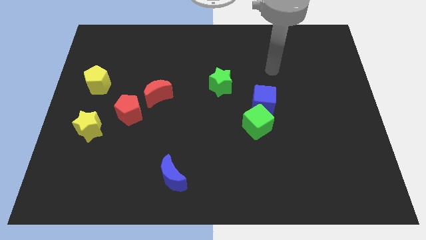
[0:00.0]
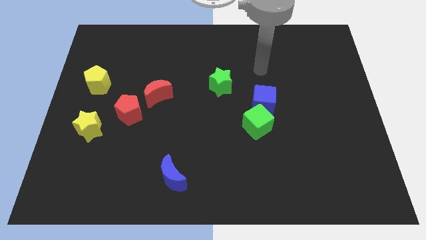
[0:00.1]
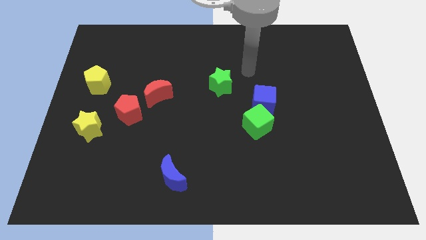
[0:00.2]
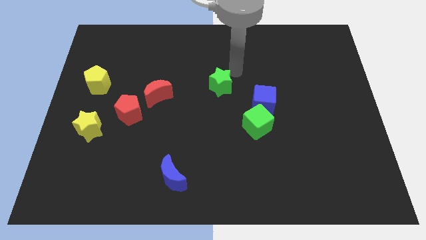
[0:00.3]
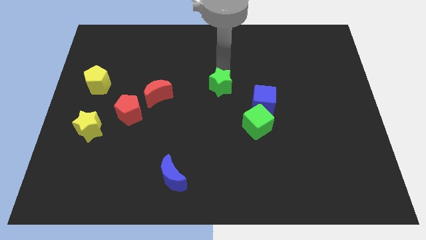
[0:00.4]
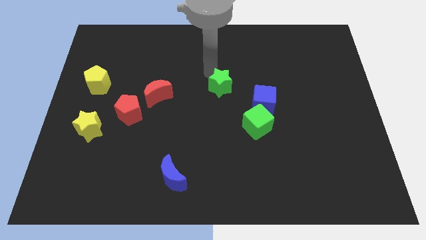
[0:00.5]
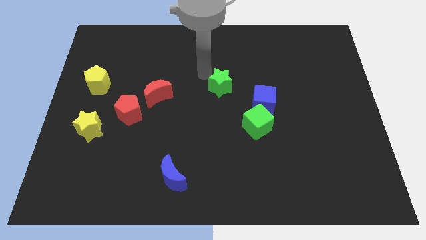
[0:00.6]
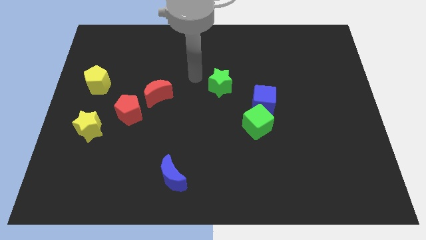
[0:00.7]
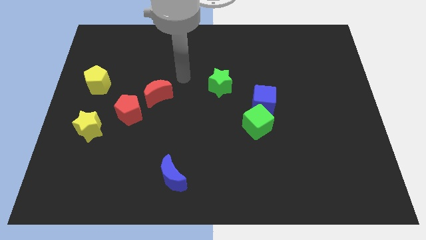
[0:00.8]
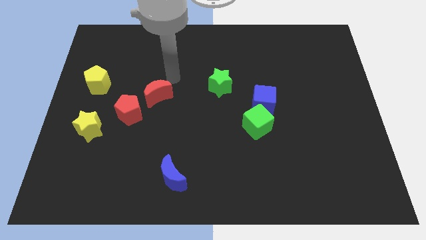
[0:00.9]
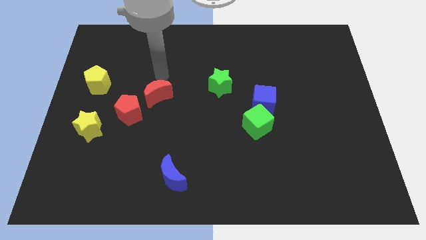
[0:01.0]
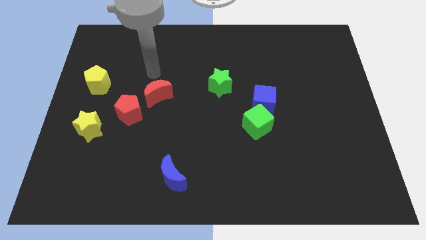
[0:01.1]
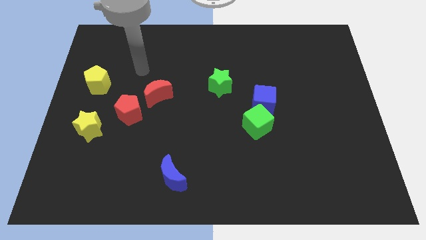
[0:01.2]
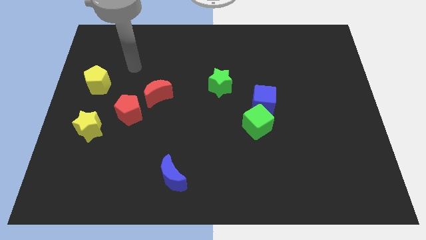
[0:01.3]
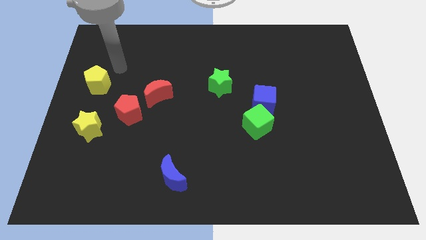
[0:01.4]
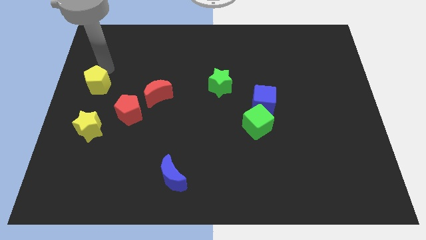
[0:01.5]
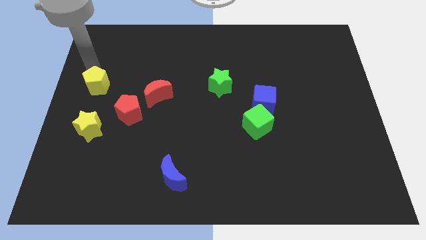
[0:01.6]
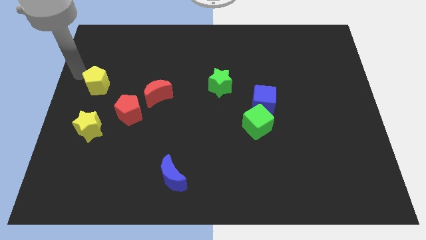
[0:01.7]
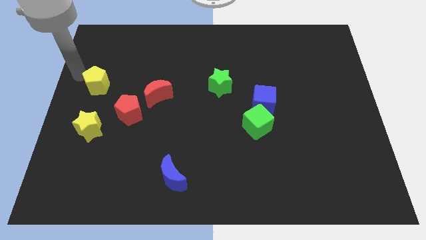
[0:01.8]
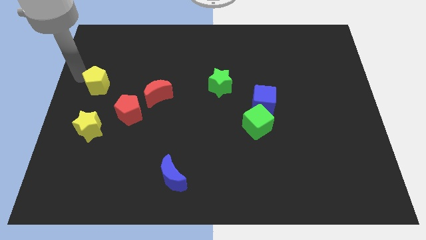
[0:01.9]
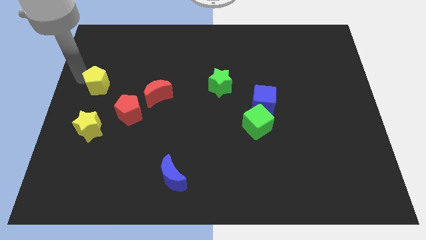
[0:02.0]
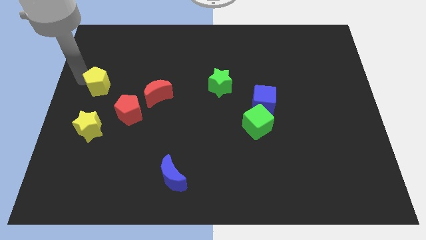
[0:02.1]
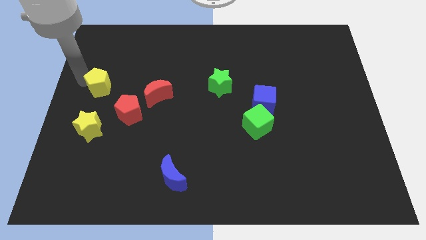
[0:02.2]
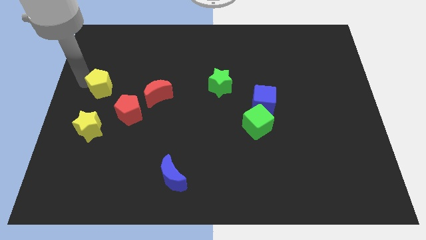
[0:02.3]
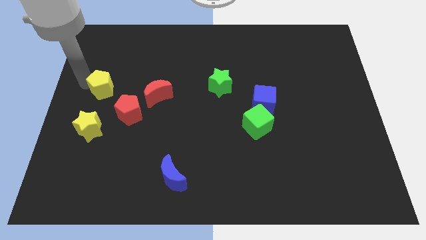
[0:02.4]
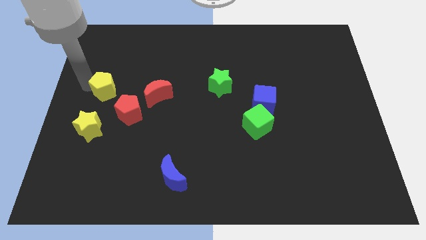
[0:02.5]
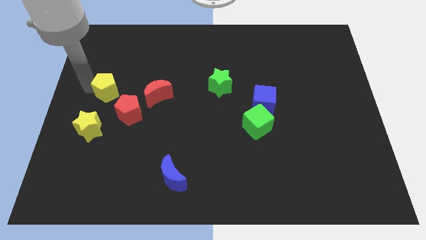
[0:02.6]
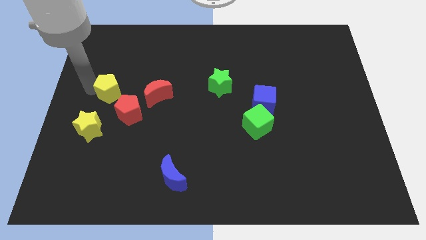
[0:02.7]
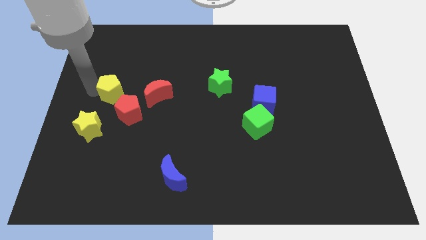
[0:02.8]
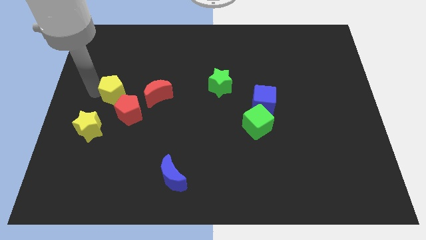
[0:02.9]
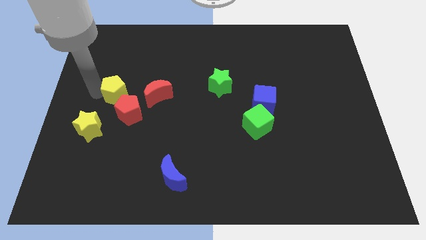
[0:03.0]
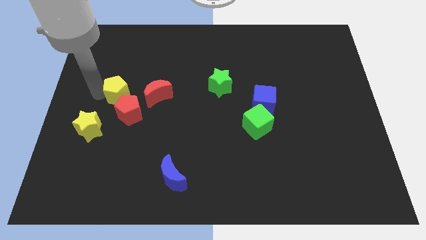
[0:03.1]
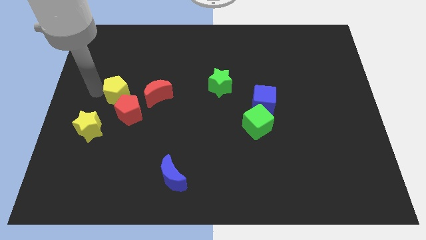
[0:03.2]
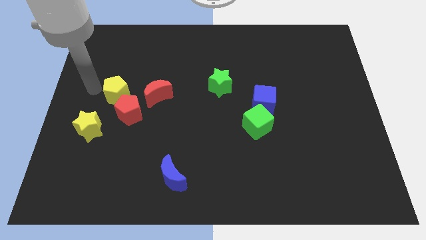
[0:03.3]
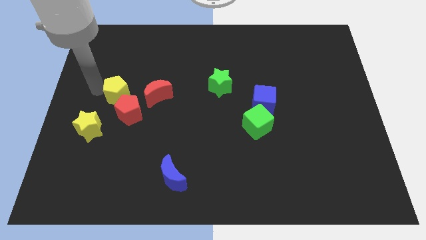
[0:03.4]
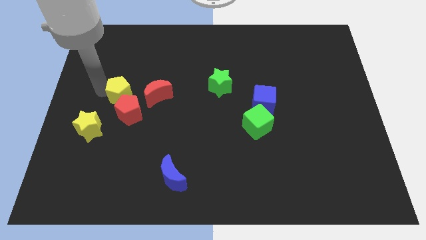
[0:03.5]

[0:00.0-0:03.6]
slightly push the yellow pentagon down and right diagonally

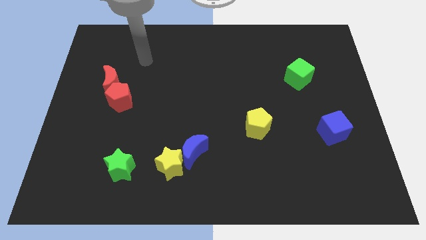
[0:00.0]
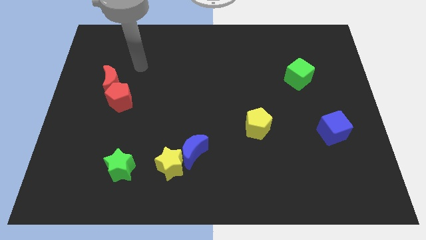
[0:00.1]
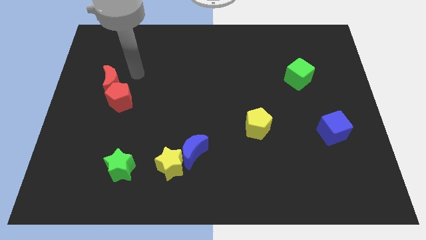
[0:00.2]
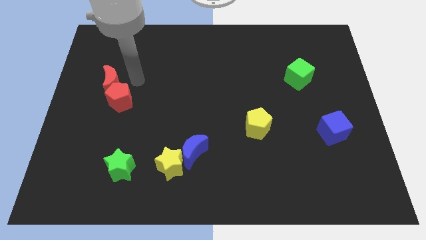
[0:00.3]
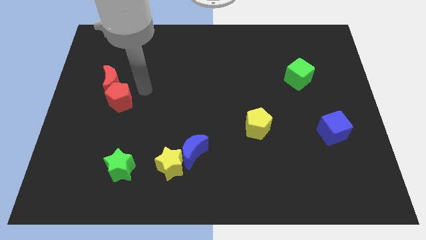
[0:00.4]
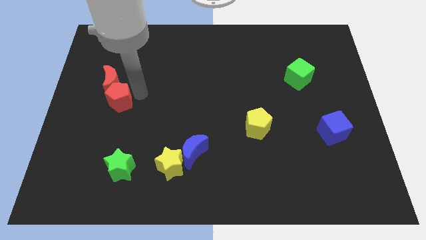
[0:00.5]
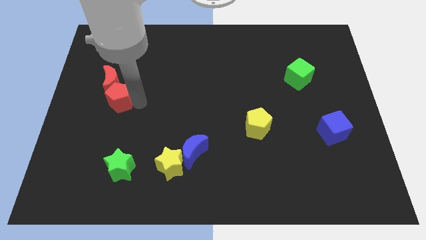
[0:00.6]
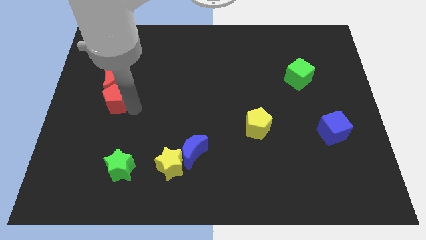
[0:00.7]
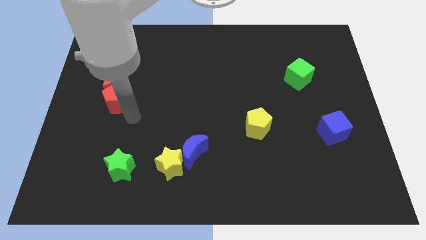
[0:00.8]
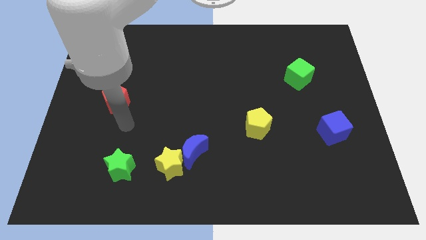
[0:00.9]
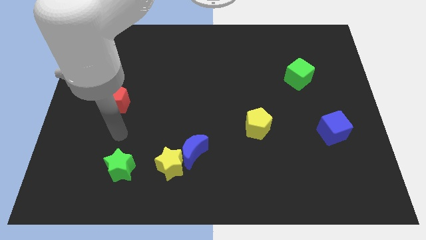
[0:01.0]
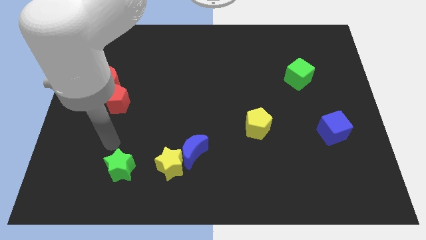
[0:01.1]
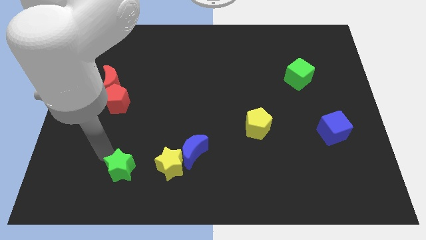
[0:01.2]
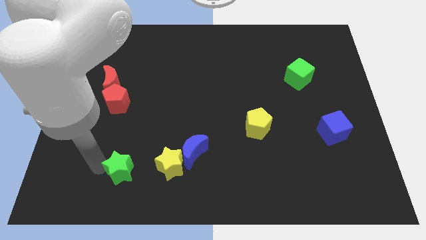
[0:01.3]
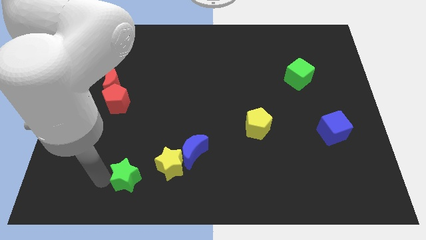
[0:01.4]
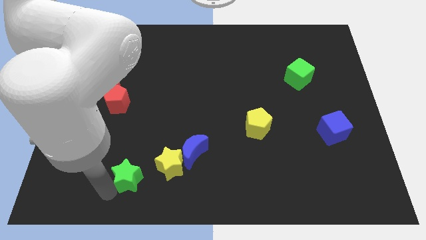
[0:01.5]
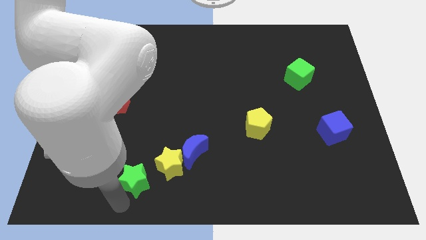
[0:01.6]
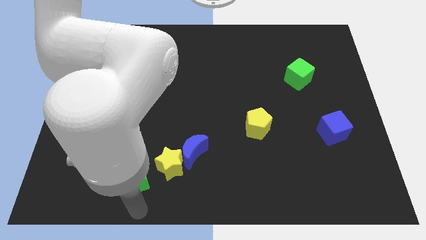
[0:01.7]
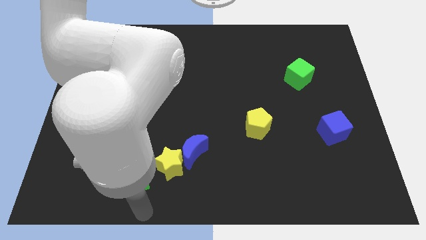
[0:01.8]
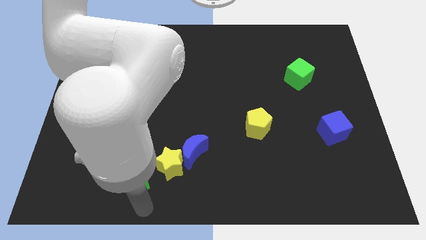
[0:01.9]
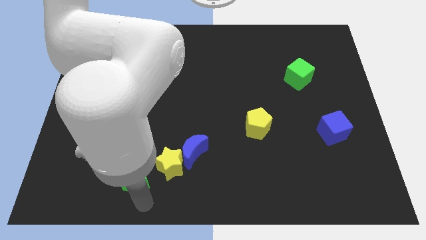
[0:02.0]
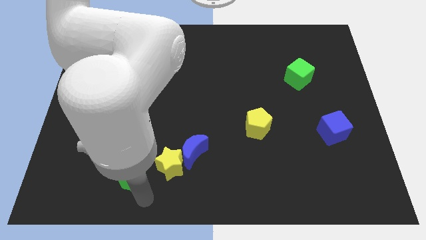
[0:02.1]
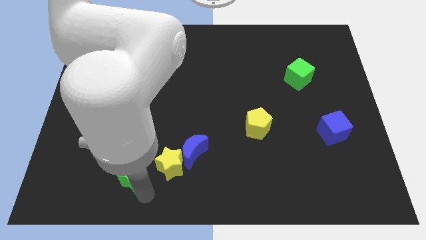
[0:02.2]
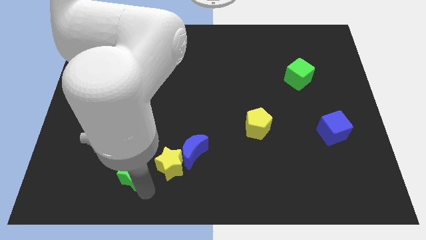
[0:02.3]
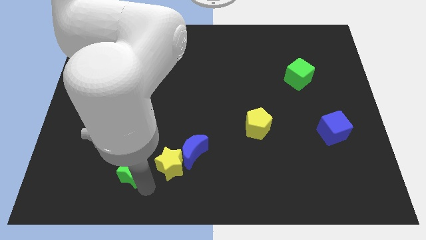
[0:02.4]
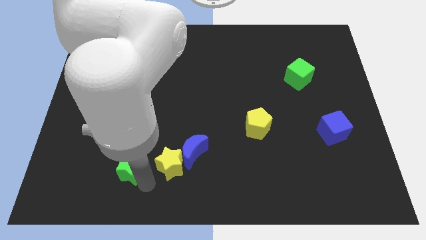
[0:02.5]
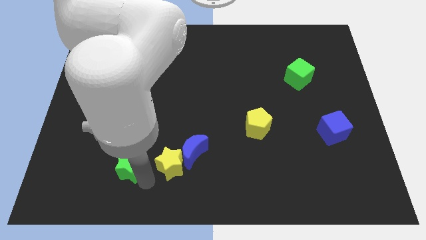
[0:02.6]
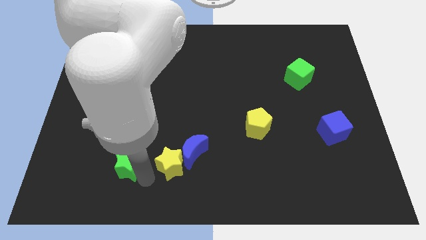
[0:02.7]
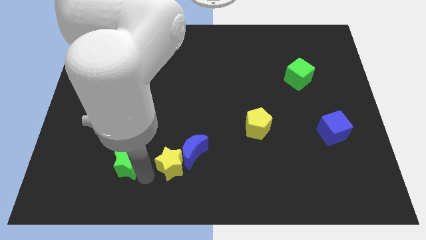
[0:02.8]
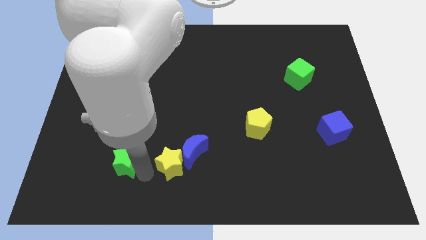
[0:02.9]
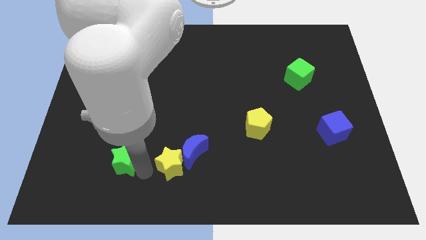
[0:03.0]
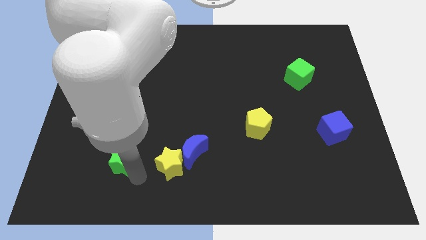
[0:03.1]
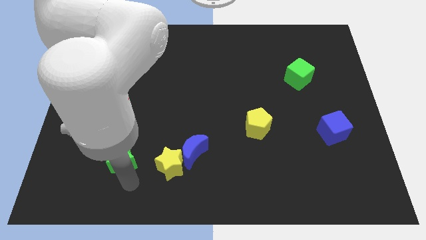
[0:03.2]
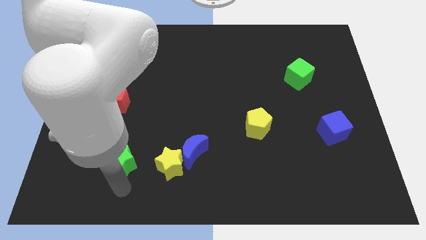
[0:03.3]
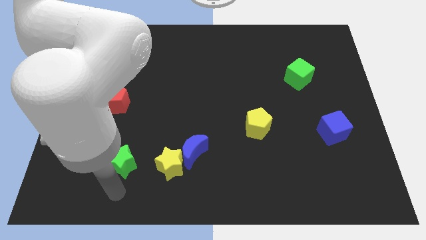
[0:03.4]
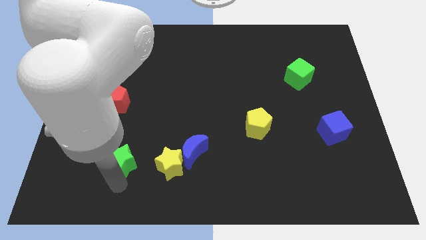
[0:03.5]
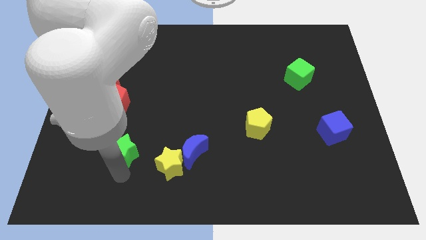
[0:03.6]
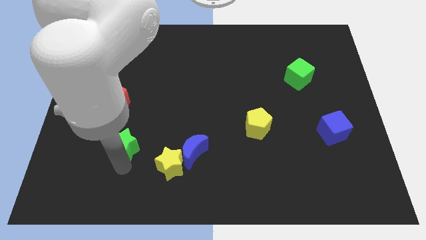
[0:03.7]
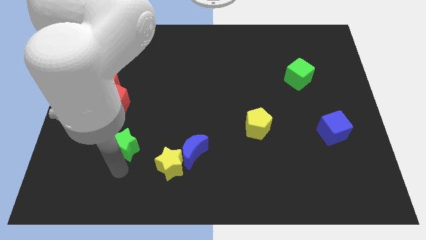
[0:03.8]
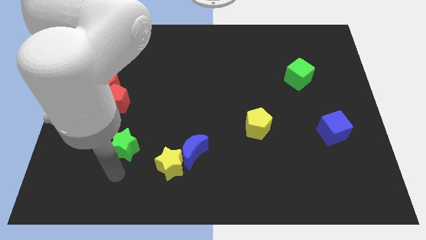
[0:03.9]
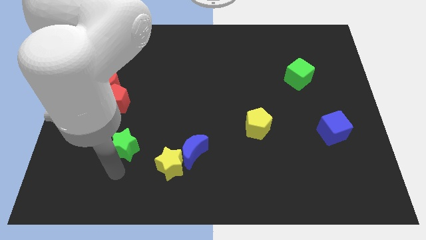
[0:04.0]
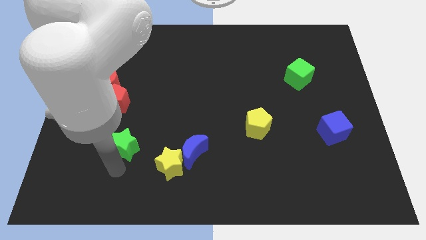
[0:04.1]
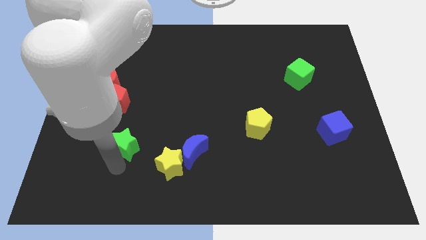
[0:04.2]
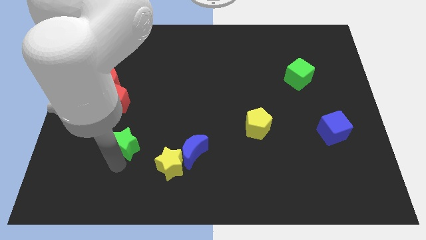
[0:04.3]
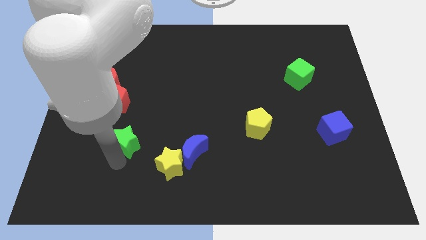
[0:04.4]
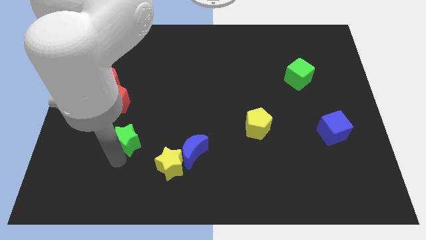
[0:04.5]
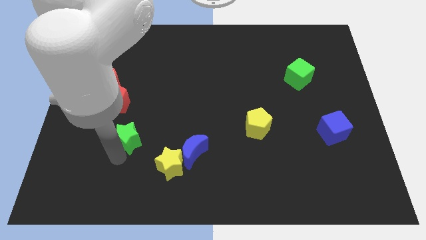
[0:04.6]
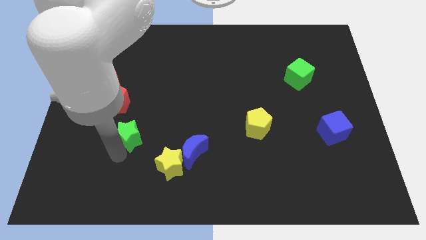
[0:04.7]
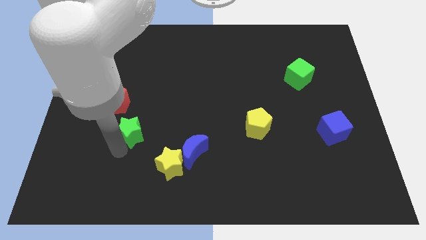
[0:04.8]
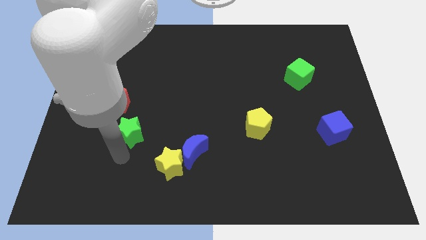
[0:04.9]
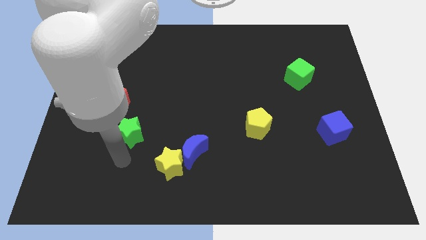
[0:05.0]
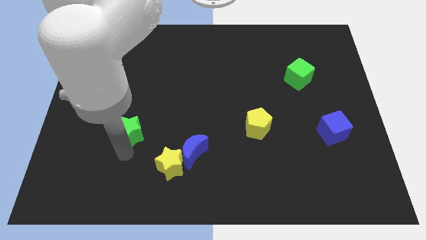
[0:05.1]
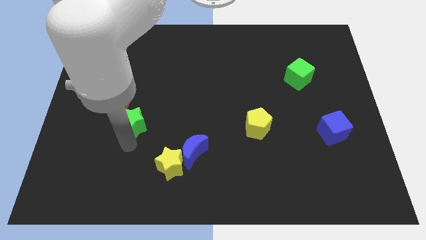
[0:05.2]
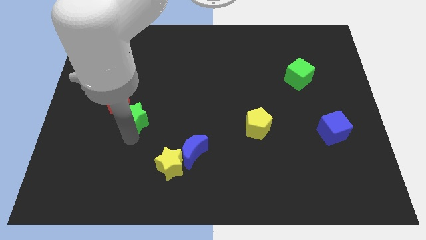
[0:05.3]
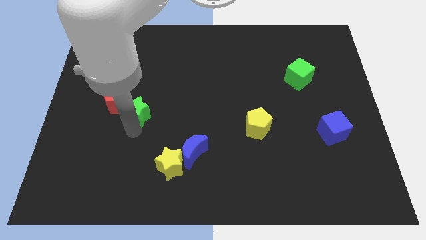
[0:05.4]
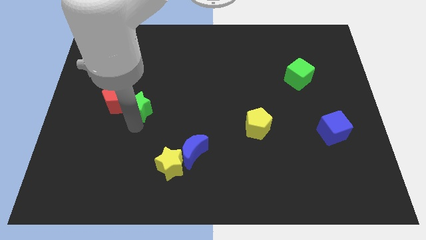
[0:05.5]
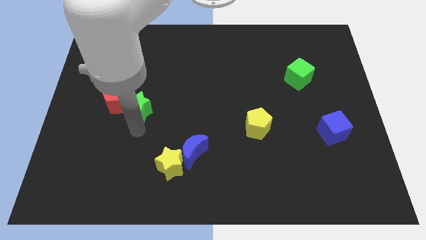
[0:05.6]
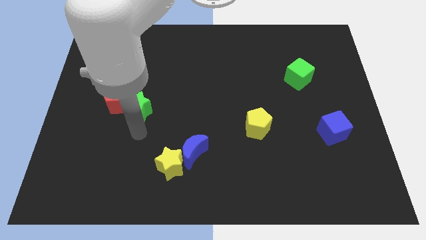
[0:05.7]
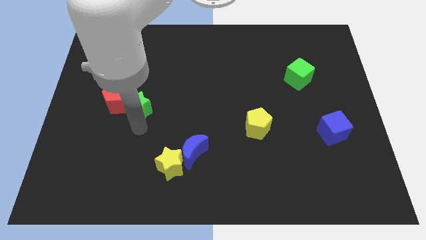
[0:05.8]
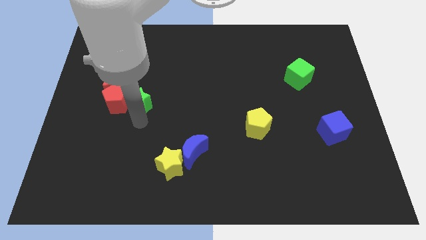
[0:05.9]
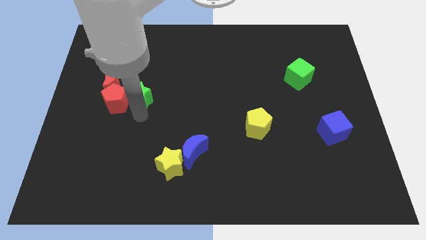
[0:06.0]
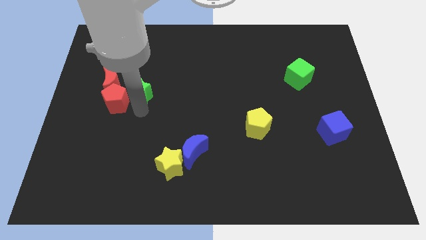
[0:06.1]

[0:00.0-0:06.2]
slide the green star up
